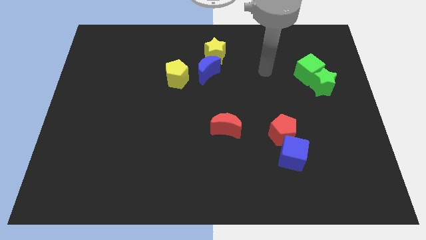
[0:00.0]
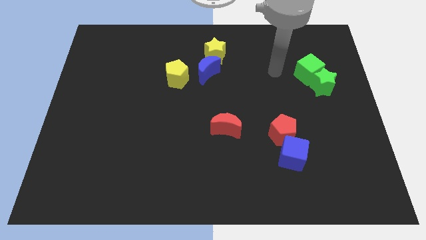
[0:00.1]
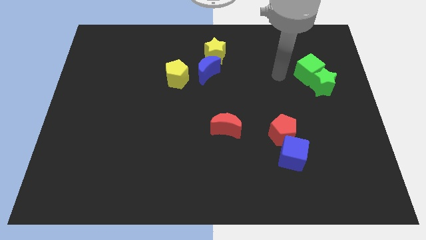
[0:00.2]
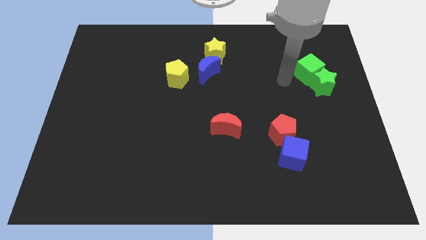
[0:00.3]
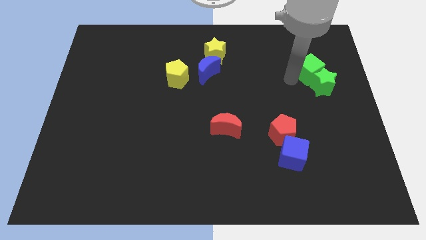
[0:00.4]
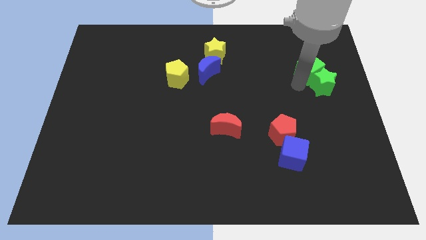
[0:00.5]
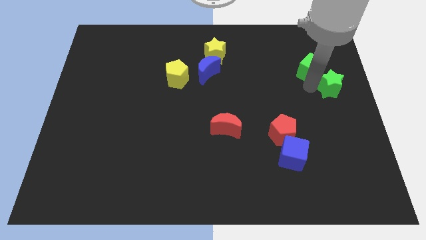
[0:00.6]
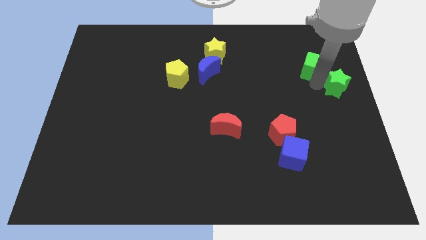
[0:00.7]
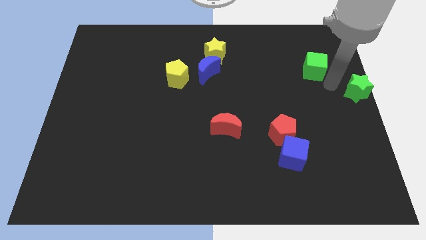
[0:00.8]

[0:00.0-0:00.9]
pull the green cube apart from the green star

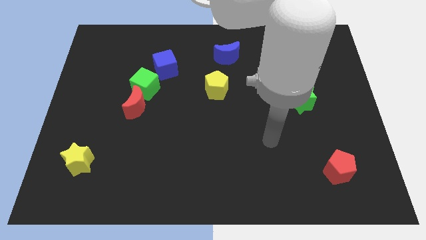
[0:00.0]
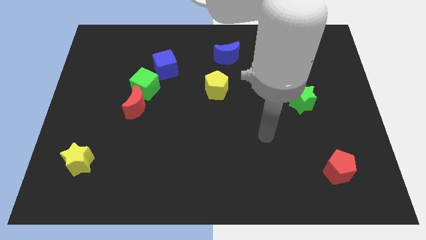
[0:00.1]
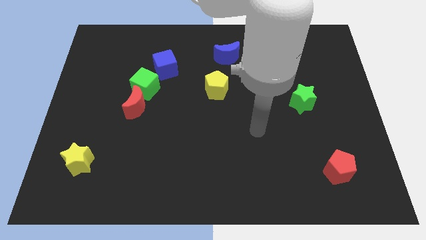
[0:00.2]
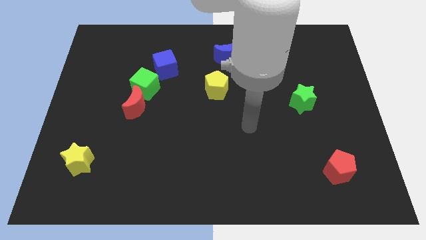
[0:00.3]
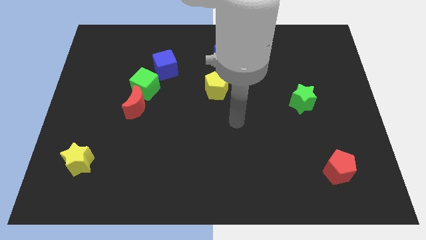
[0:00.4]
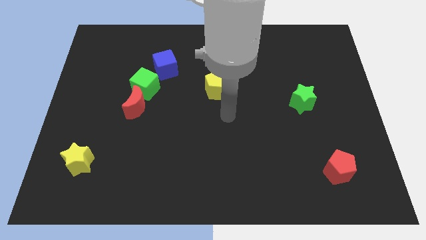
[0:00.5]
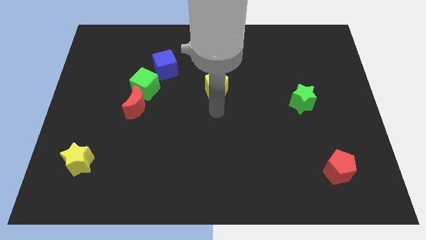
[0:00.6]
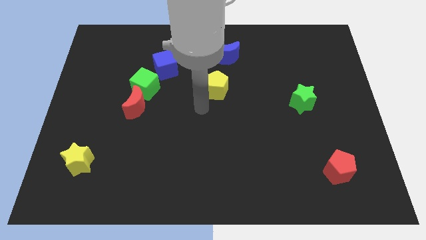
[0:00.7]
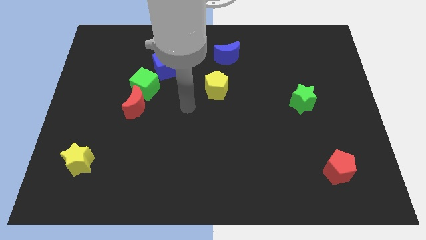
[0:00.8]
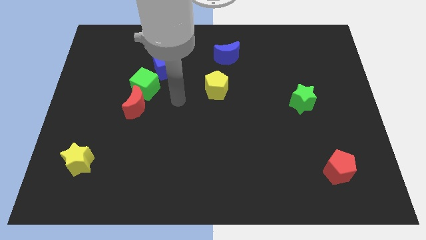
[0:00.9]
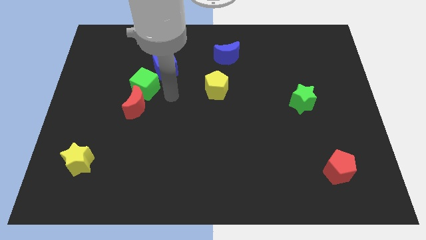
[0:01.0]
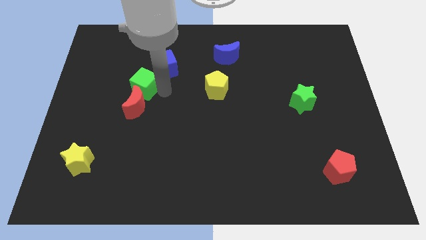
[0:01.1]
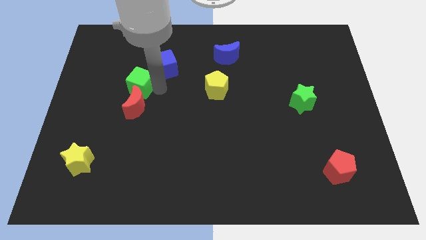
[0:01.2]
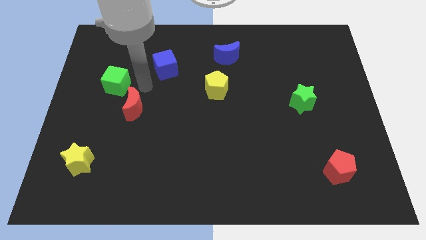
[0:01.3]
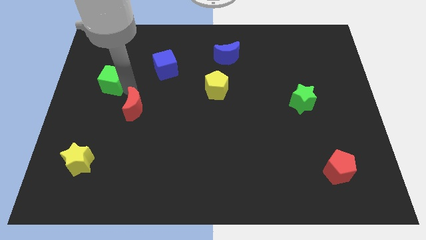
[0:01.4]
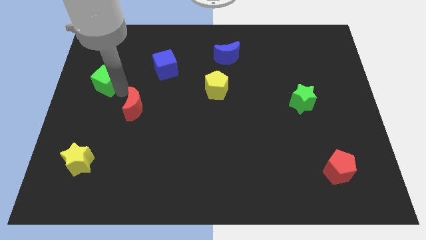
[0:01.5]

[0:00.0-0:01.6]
pull the red moon apart from the green cube

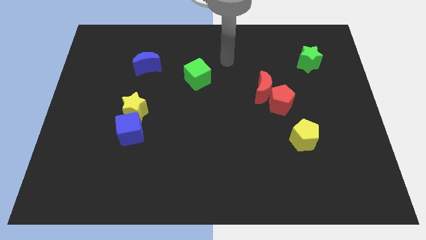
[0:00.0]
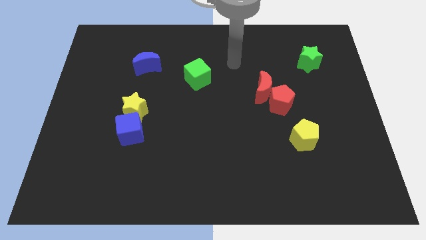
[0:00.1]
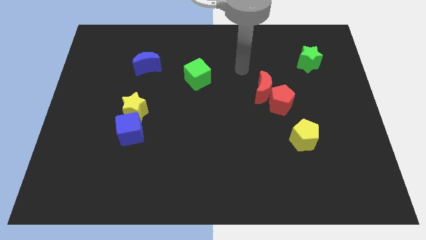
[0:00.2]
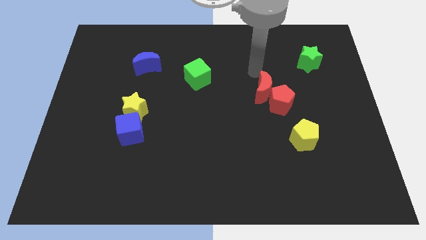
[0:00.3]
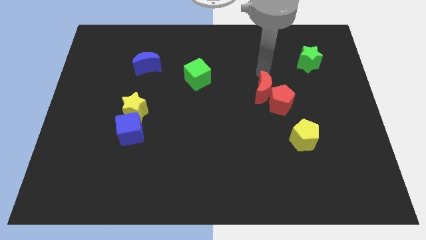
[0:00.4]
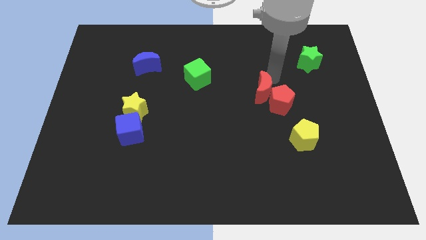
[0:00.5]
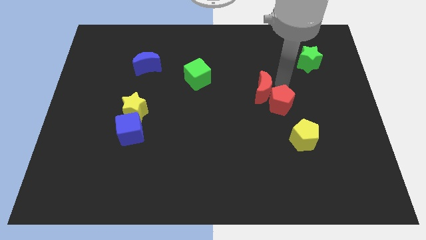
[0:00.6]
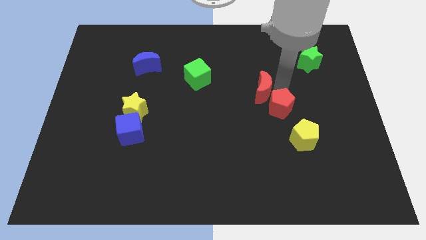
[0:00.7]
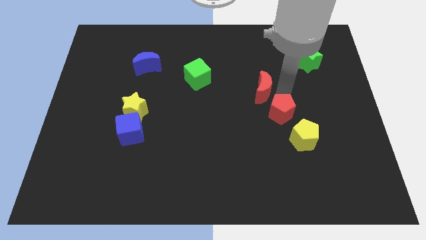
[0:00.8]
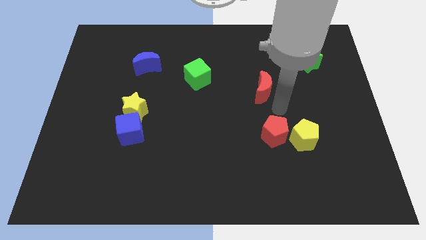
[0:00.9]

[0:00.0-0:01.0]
move the red moon away from the red pentagon

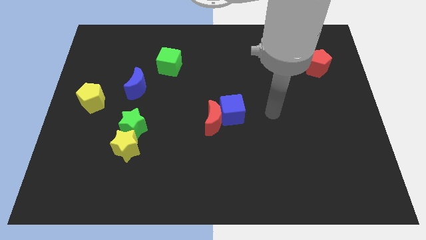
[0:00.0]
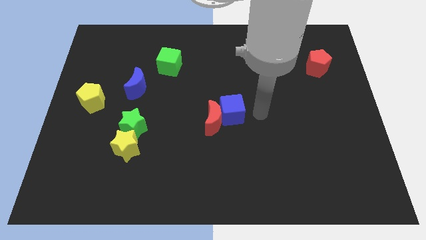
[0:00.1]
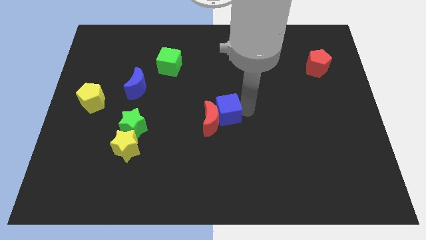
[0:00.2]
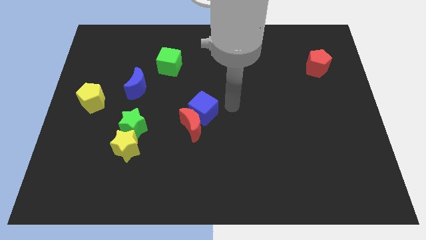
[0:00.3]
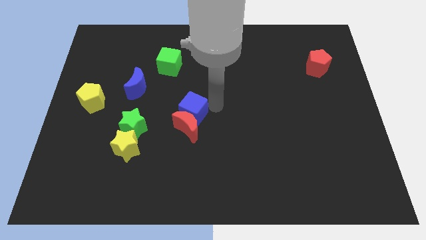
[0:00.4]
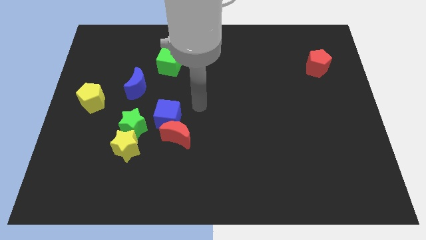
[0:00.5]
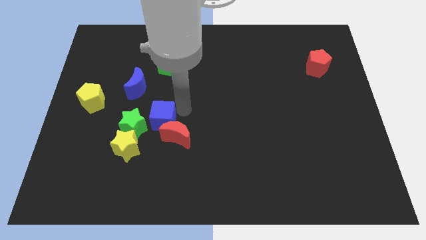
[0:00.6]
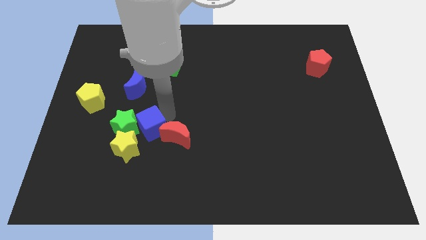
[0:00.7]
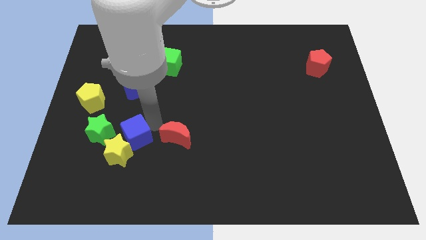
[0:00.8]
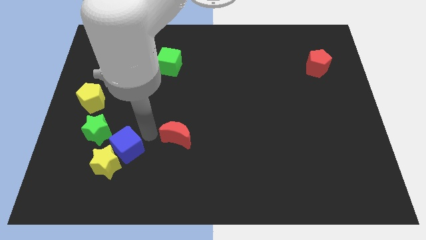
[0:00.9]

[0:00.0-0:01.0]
move the red moon away from the blue cube

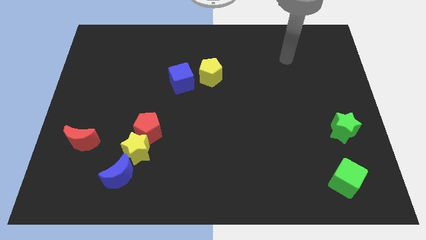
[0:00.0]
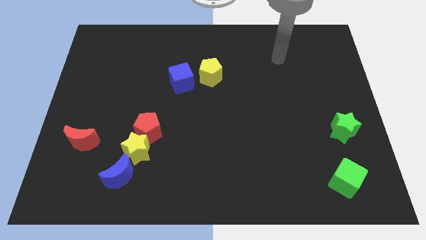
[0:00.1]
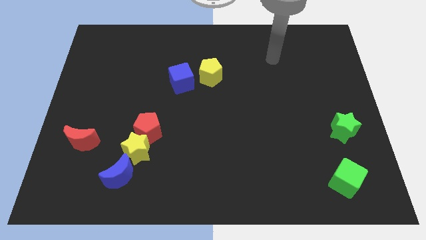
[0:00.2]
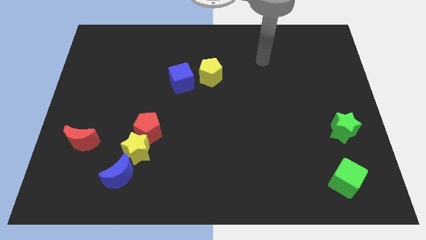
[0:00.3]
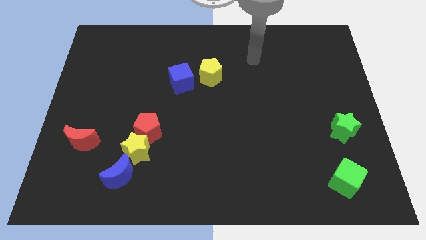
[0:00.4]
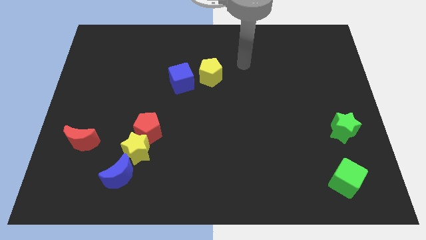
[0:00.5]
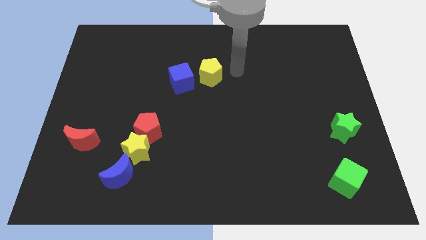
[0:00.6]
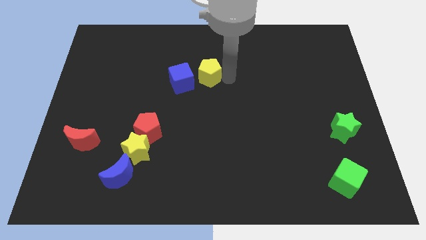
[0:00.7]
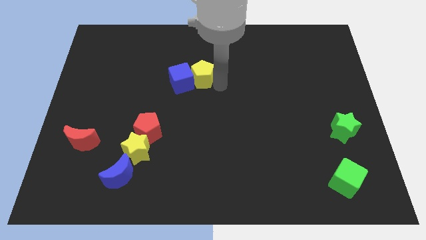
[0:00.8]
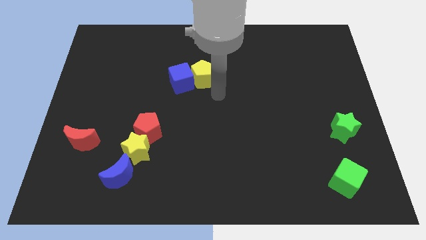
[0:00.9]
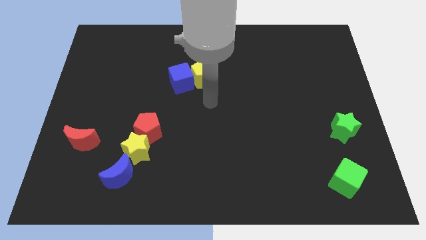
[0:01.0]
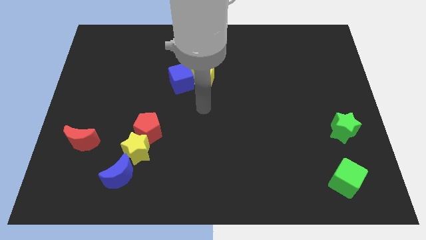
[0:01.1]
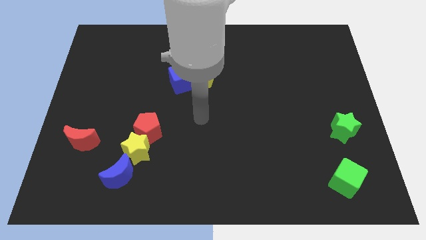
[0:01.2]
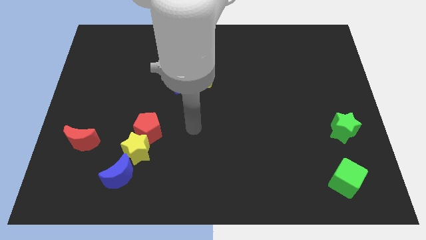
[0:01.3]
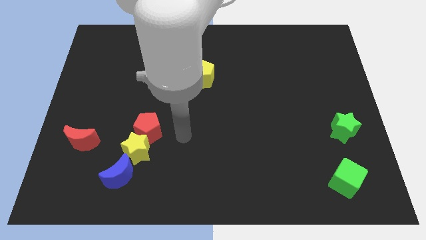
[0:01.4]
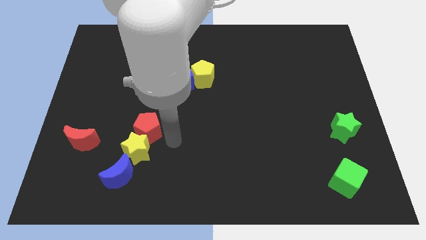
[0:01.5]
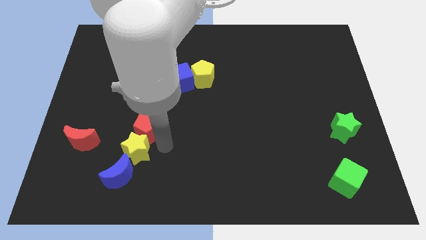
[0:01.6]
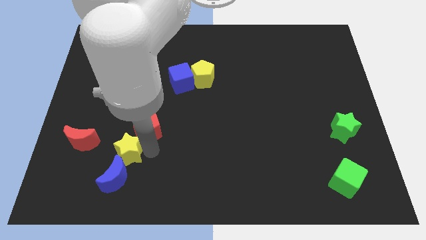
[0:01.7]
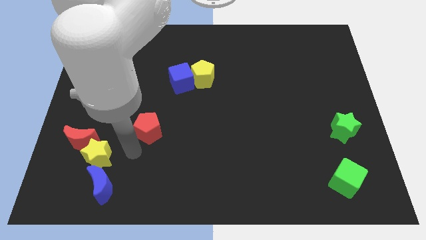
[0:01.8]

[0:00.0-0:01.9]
separate the red pentagon from the yellow star

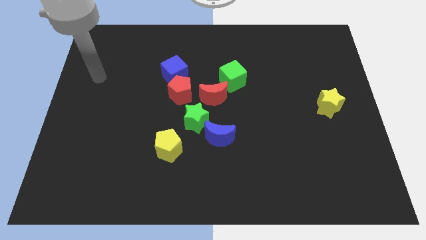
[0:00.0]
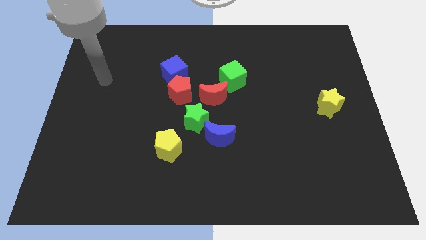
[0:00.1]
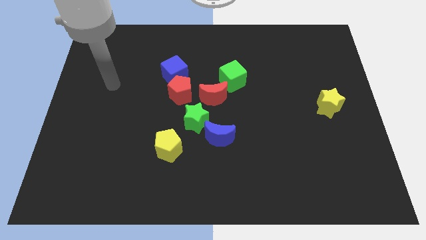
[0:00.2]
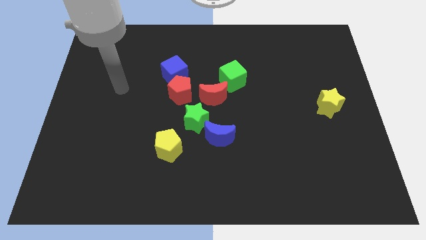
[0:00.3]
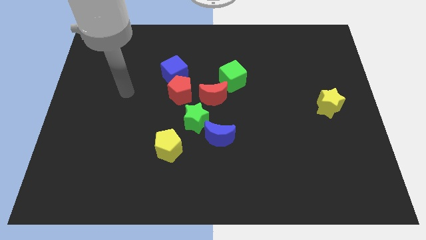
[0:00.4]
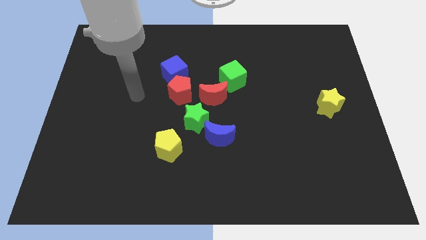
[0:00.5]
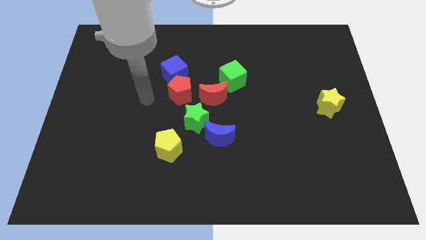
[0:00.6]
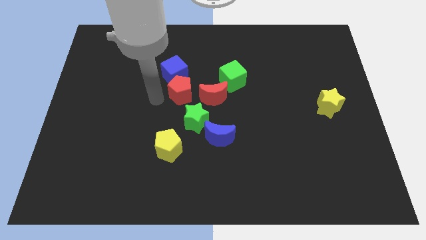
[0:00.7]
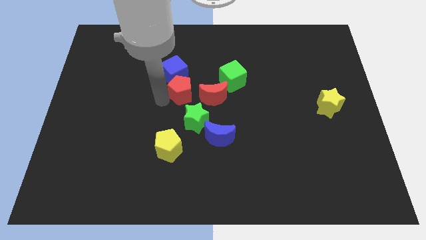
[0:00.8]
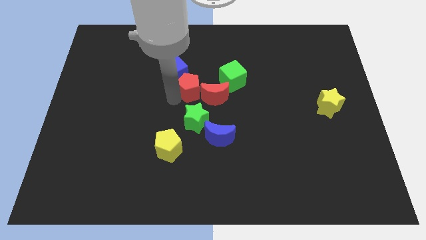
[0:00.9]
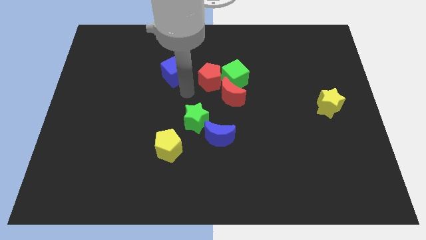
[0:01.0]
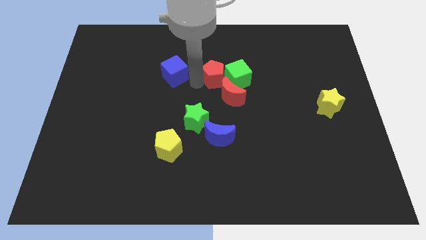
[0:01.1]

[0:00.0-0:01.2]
separate the blue cube from the red pentagon

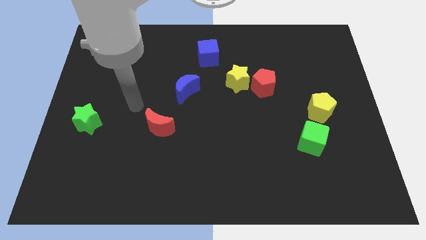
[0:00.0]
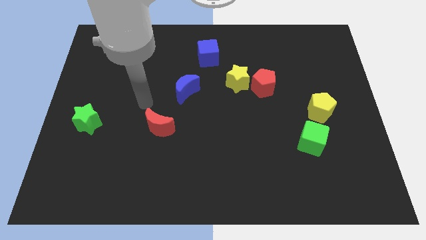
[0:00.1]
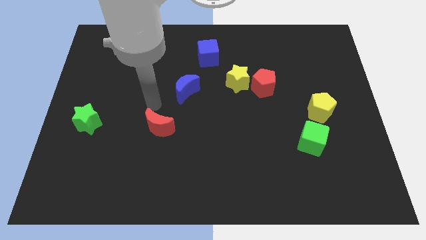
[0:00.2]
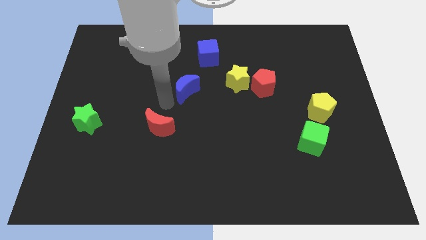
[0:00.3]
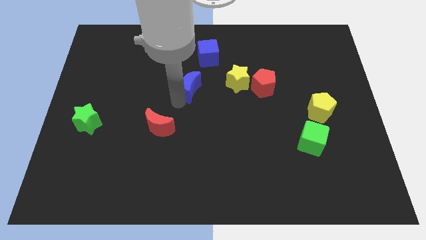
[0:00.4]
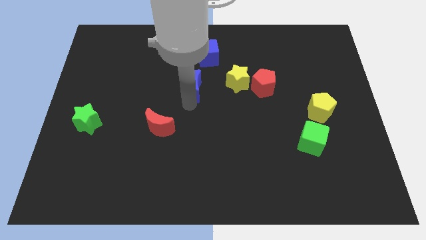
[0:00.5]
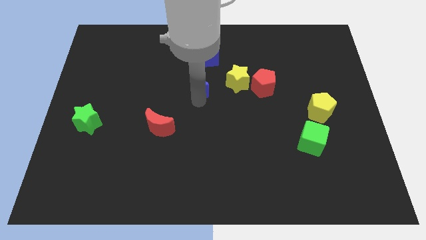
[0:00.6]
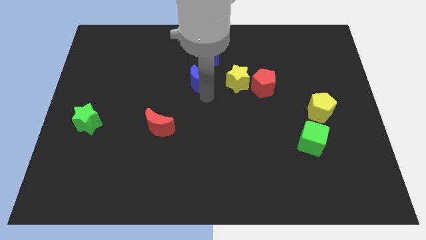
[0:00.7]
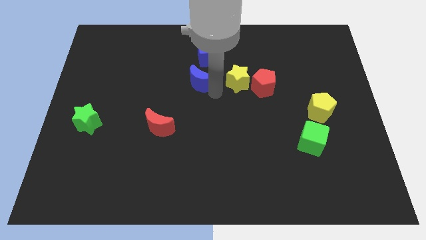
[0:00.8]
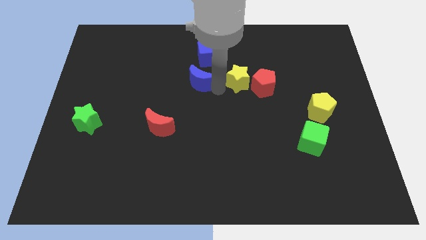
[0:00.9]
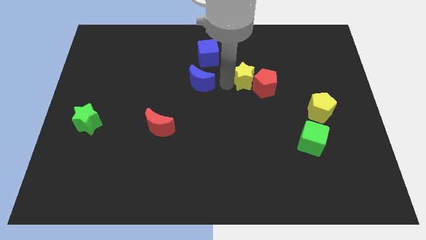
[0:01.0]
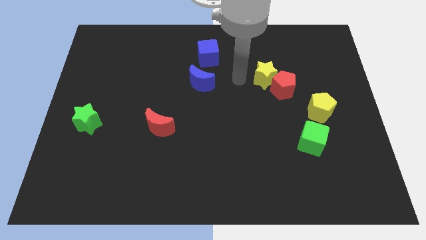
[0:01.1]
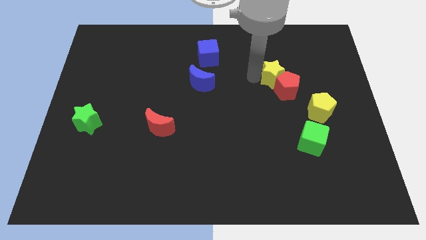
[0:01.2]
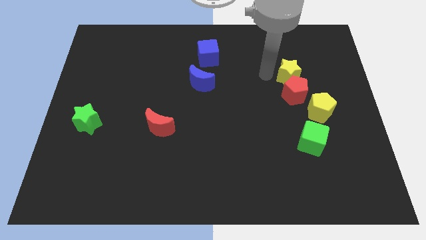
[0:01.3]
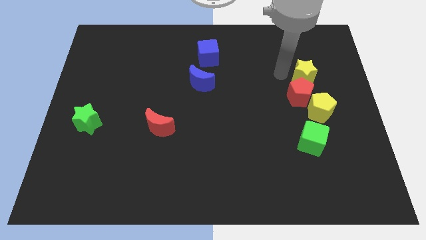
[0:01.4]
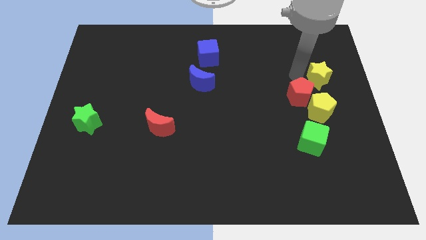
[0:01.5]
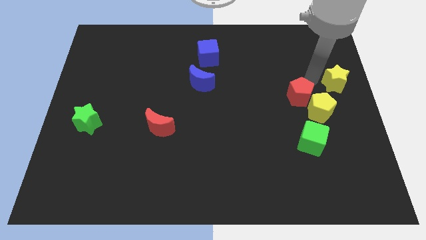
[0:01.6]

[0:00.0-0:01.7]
pull the red pentagon apart from the yellow star
